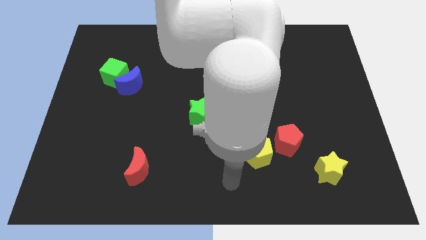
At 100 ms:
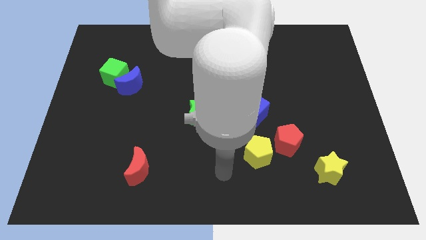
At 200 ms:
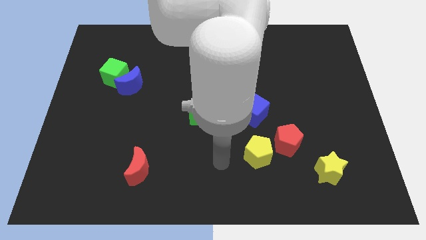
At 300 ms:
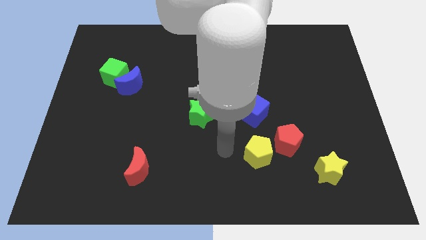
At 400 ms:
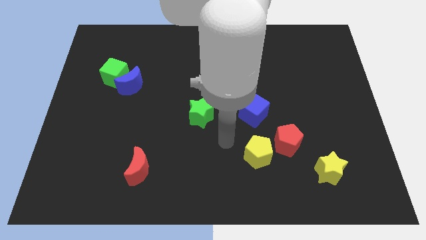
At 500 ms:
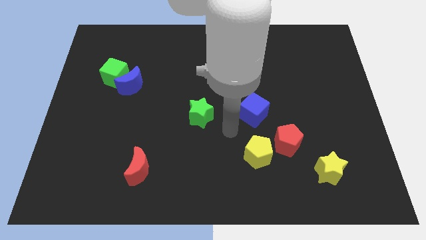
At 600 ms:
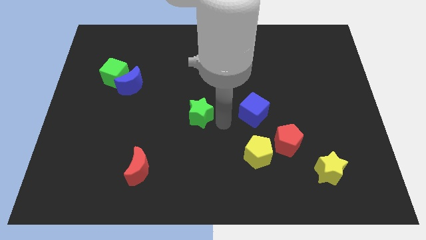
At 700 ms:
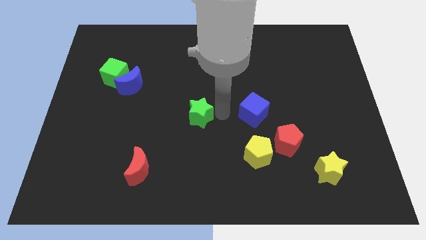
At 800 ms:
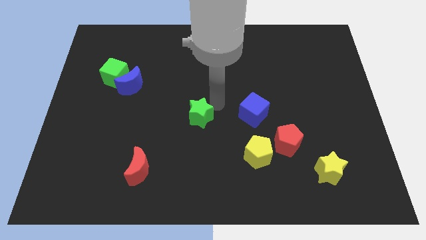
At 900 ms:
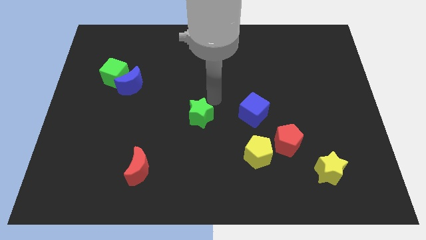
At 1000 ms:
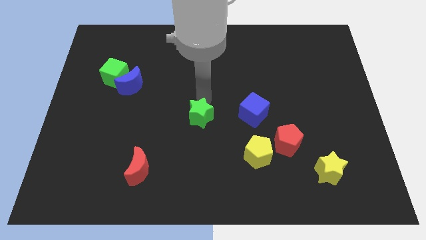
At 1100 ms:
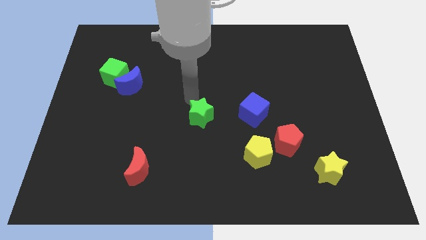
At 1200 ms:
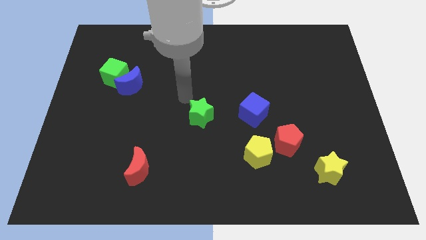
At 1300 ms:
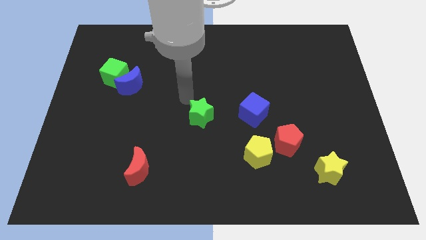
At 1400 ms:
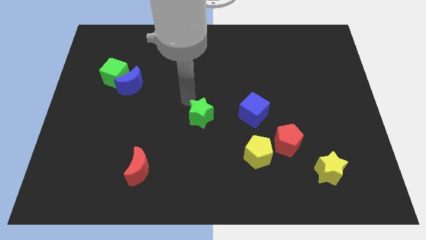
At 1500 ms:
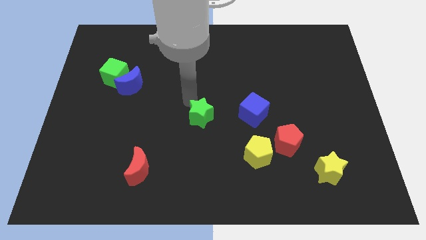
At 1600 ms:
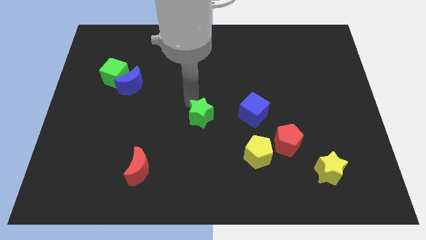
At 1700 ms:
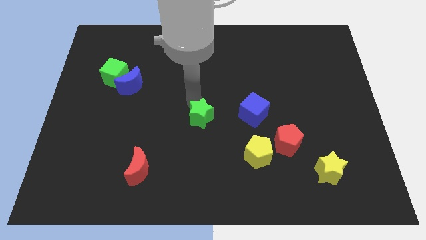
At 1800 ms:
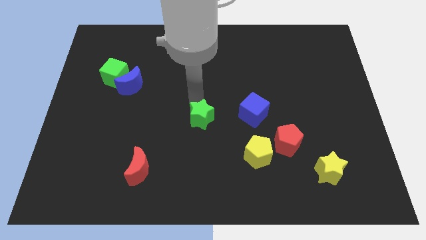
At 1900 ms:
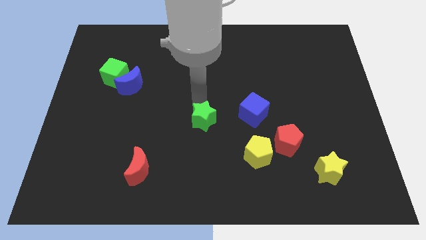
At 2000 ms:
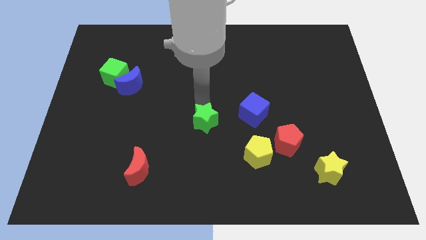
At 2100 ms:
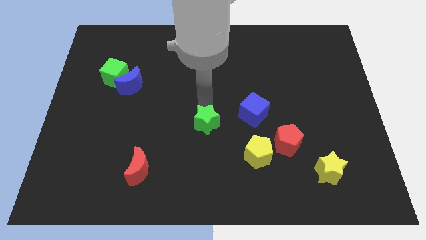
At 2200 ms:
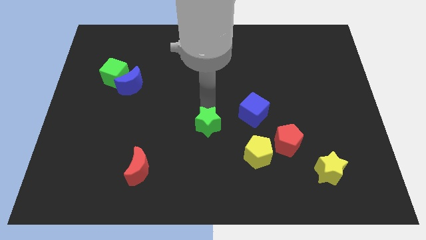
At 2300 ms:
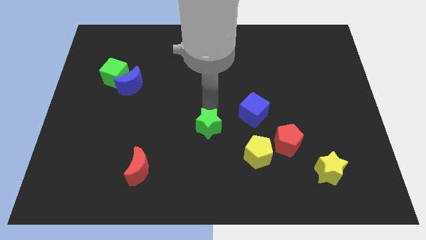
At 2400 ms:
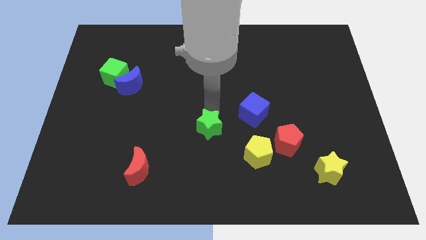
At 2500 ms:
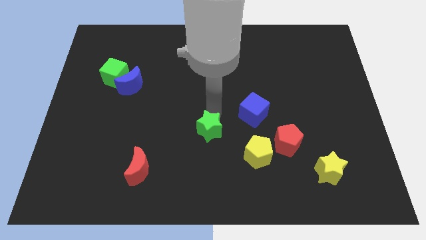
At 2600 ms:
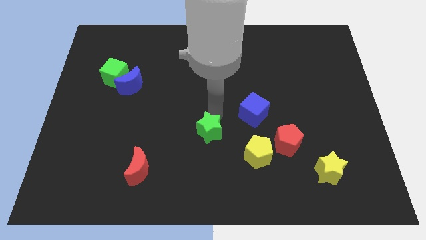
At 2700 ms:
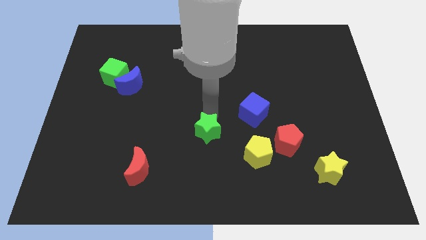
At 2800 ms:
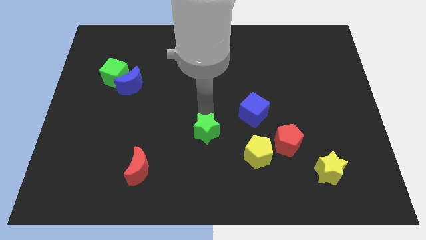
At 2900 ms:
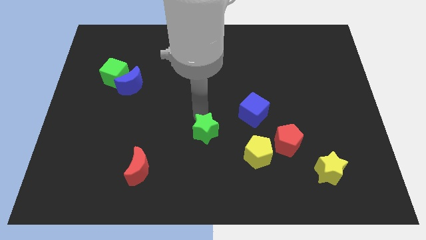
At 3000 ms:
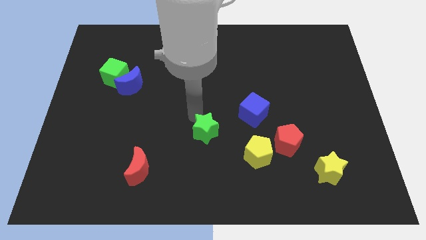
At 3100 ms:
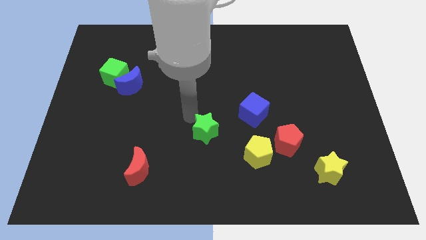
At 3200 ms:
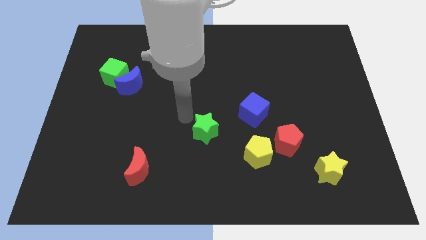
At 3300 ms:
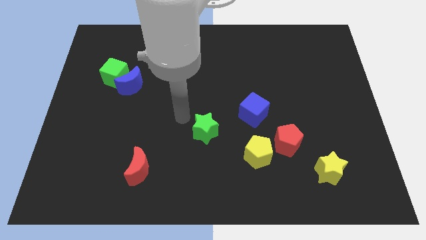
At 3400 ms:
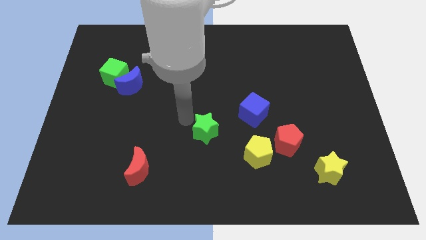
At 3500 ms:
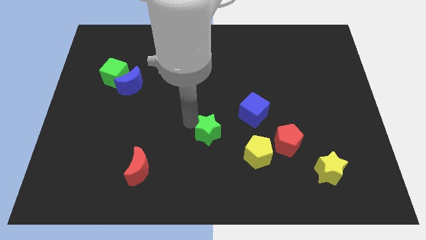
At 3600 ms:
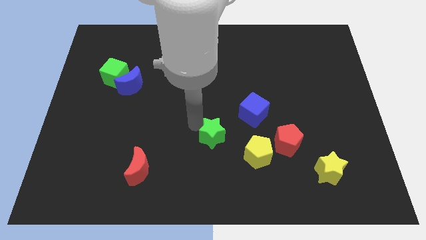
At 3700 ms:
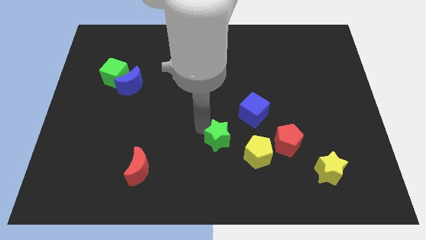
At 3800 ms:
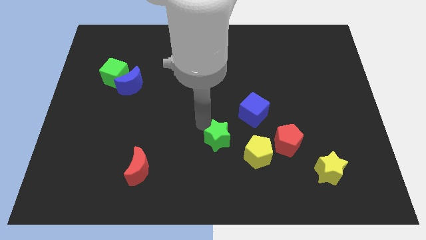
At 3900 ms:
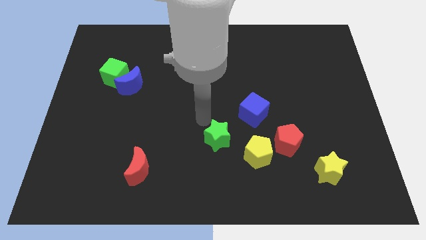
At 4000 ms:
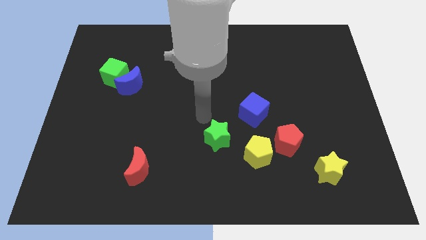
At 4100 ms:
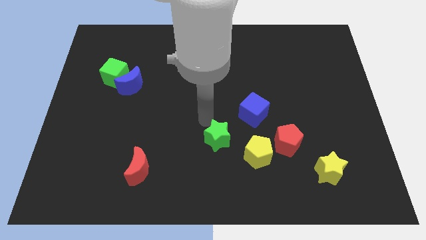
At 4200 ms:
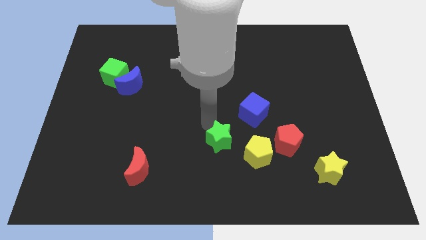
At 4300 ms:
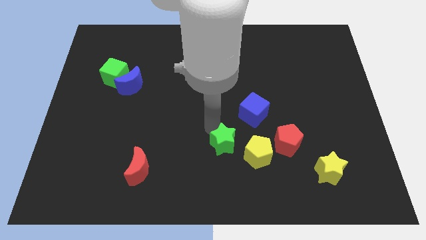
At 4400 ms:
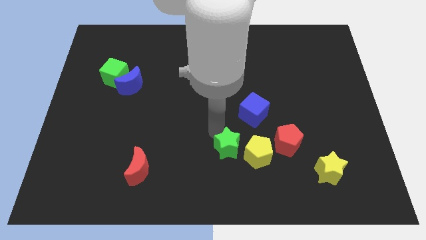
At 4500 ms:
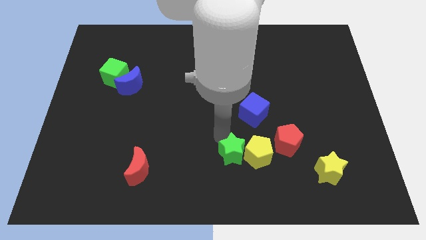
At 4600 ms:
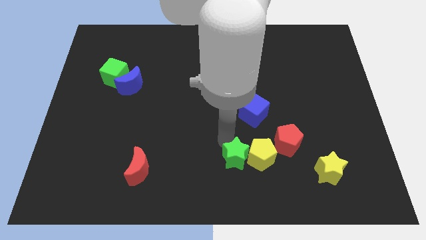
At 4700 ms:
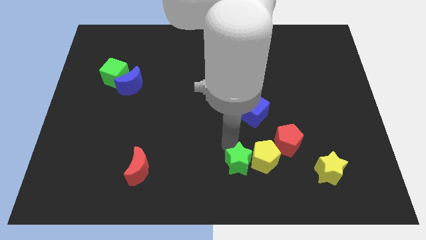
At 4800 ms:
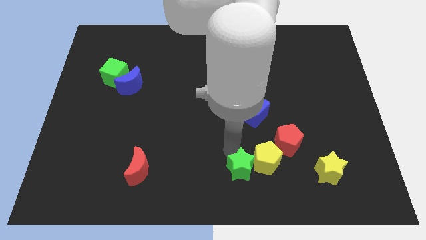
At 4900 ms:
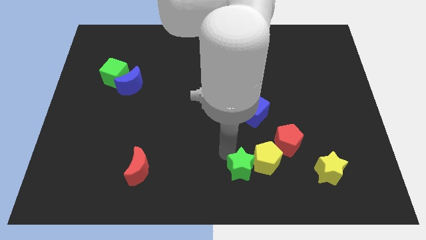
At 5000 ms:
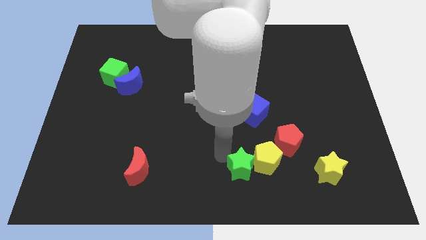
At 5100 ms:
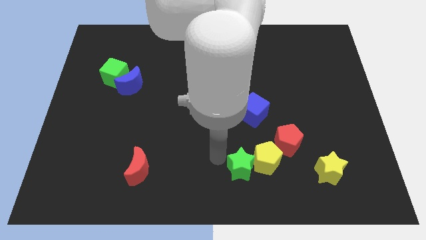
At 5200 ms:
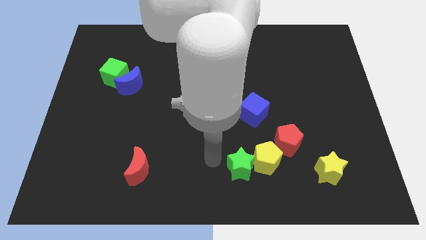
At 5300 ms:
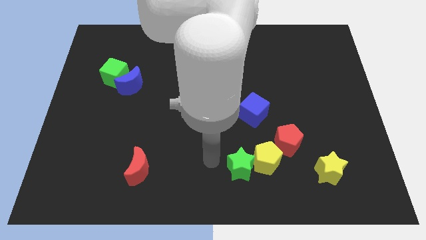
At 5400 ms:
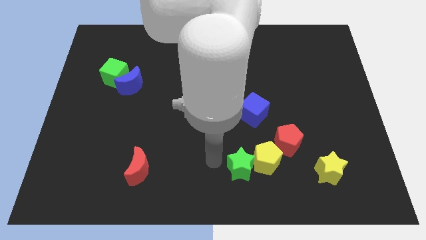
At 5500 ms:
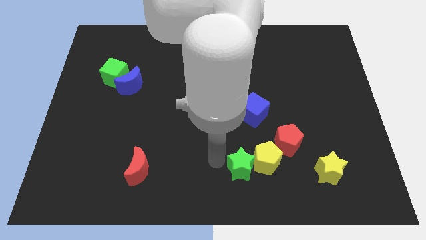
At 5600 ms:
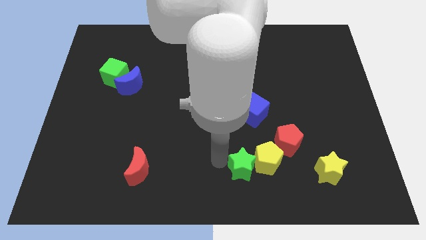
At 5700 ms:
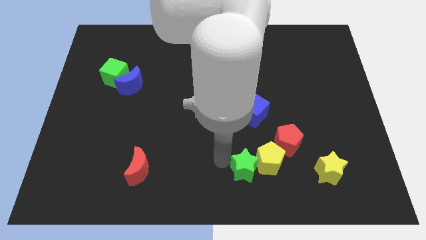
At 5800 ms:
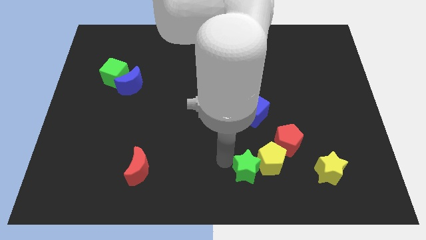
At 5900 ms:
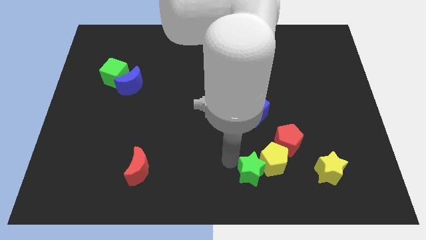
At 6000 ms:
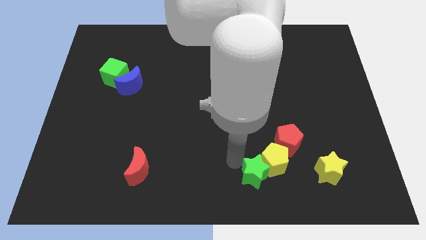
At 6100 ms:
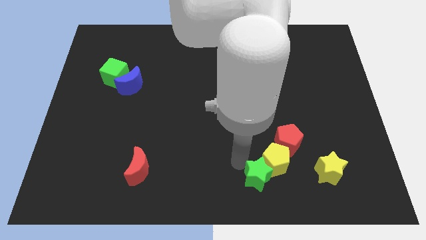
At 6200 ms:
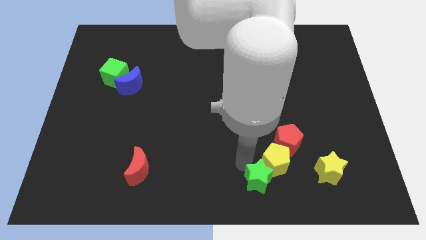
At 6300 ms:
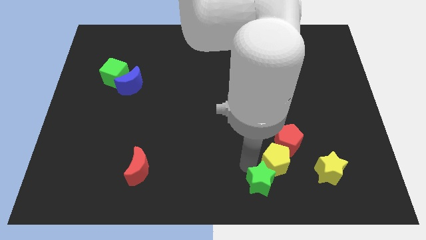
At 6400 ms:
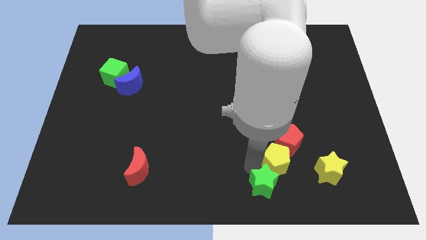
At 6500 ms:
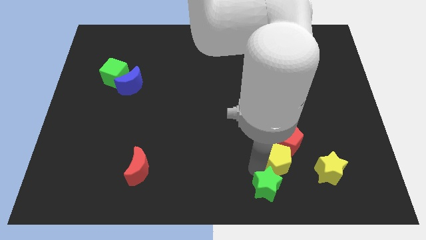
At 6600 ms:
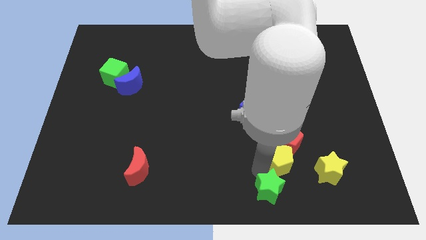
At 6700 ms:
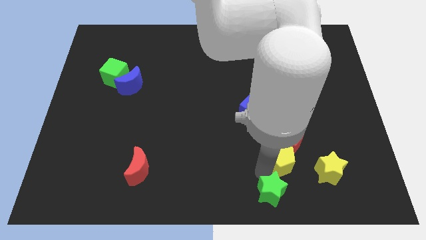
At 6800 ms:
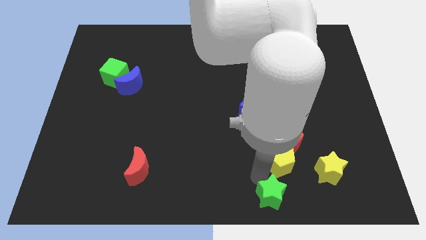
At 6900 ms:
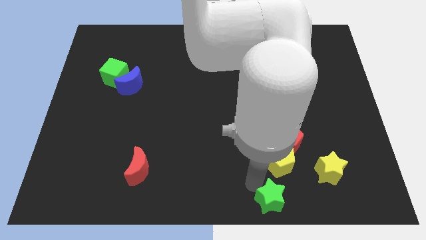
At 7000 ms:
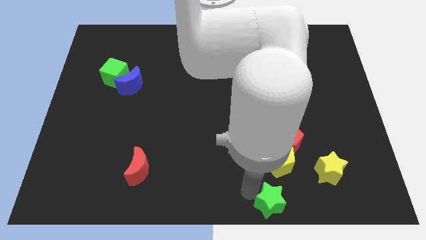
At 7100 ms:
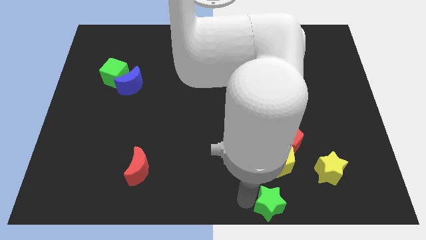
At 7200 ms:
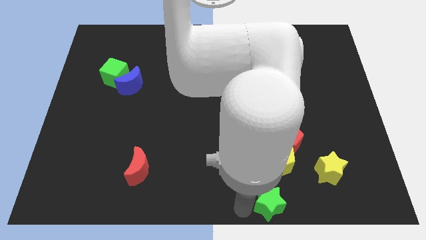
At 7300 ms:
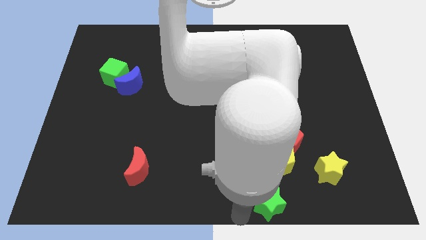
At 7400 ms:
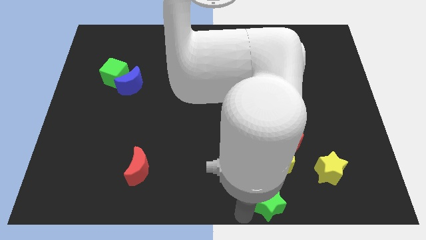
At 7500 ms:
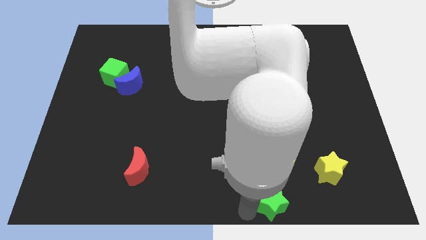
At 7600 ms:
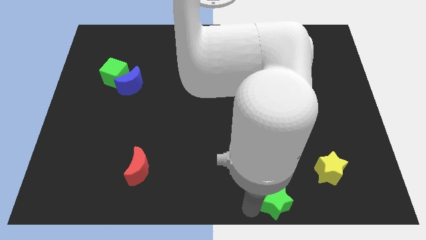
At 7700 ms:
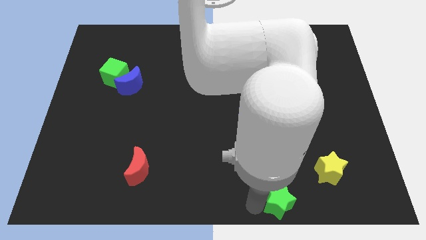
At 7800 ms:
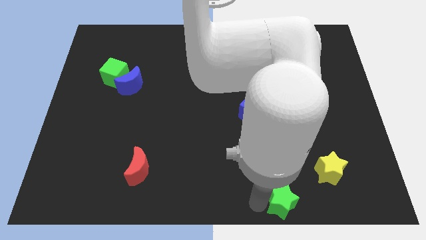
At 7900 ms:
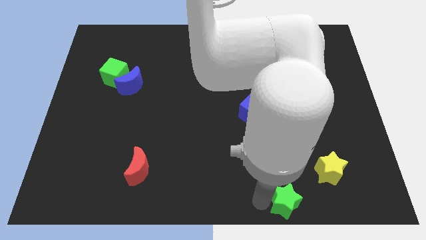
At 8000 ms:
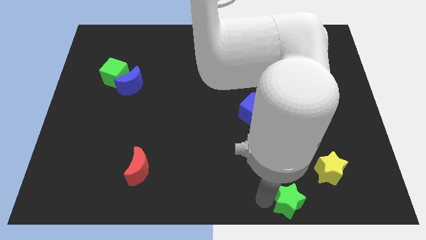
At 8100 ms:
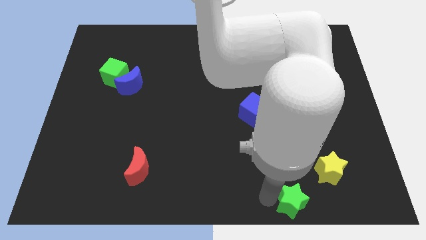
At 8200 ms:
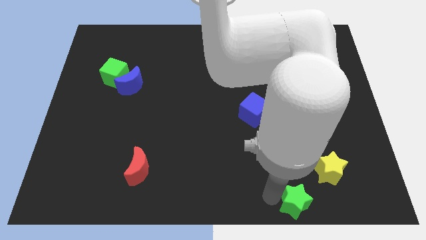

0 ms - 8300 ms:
push the green star to the bottom right of the yellow pentagon
